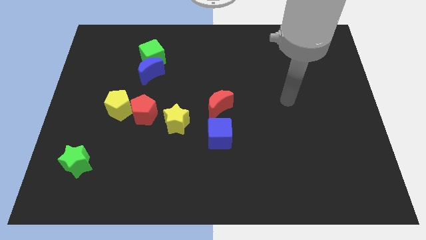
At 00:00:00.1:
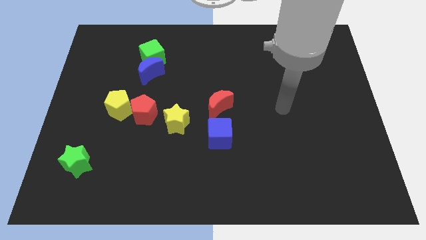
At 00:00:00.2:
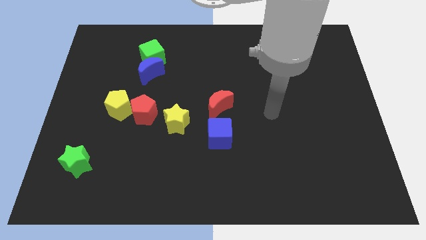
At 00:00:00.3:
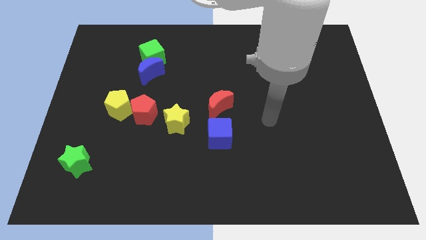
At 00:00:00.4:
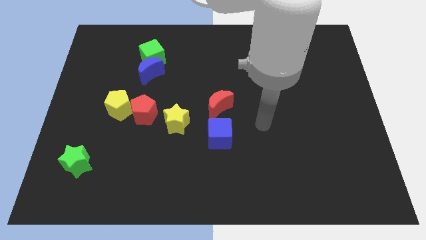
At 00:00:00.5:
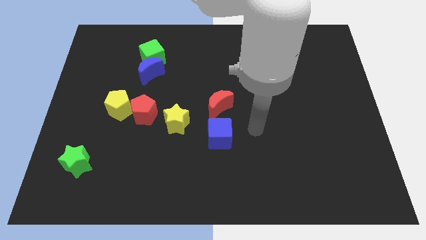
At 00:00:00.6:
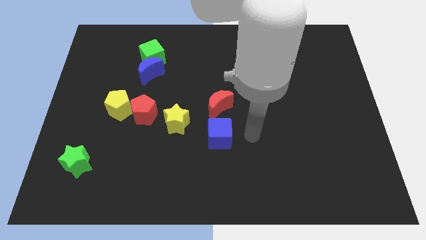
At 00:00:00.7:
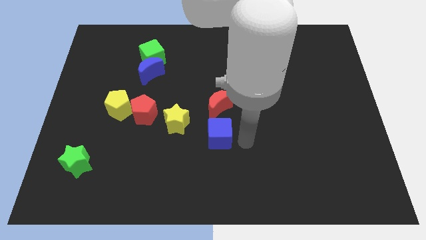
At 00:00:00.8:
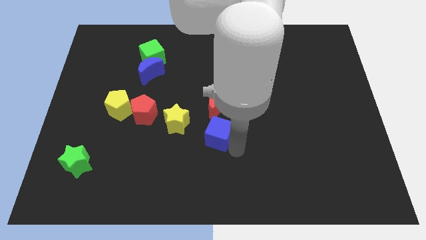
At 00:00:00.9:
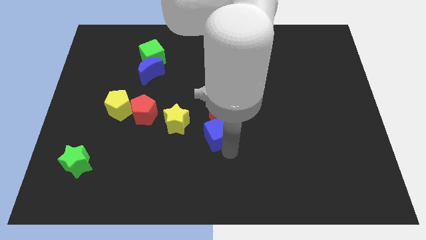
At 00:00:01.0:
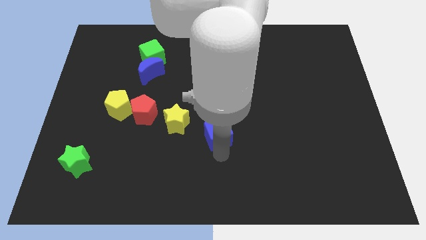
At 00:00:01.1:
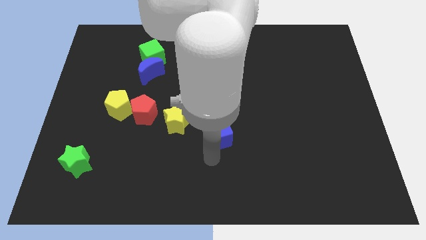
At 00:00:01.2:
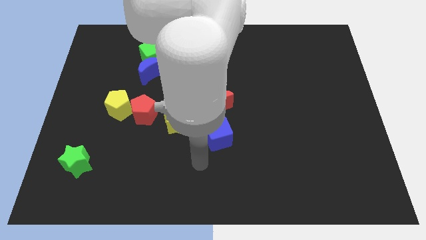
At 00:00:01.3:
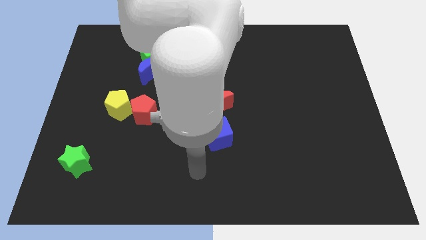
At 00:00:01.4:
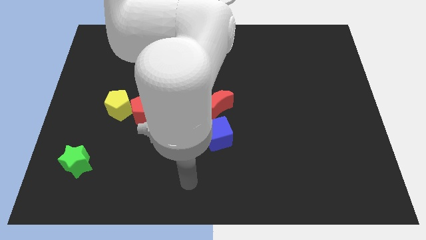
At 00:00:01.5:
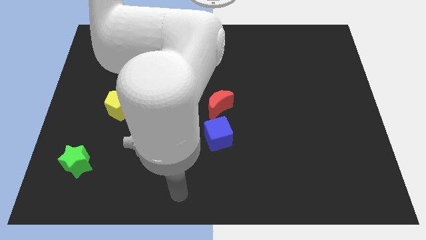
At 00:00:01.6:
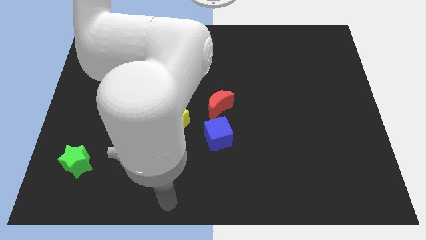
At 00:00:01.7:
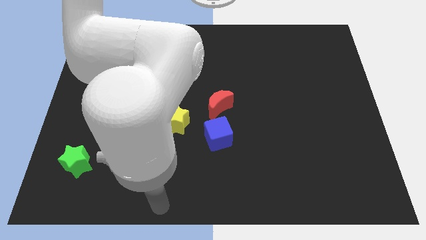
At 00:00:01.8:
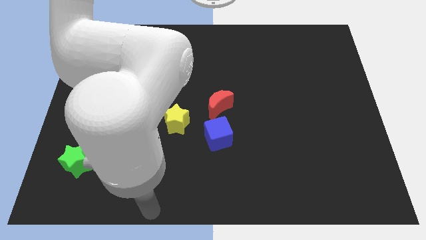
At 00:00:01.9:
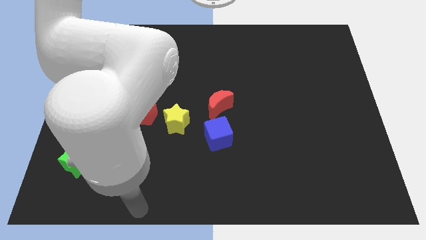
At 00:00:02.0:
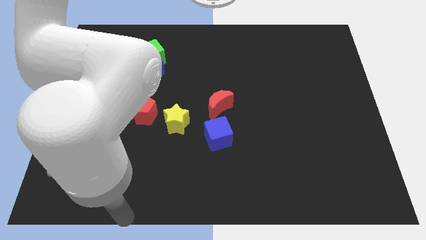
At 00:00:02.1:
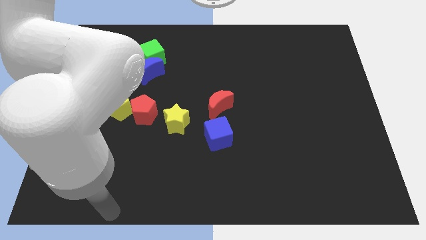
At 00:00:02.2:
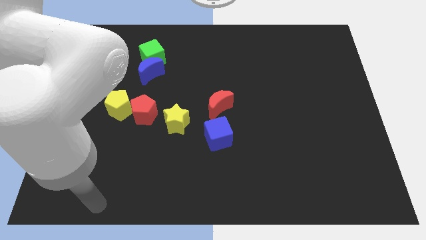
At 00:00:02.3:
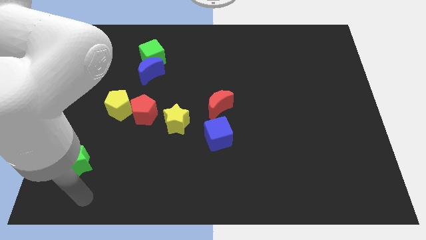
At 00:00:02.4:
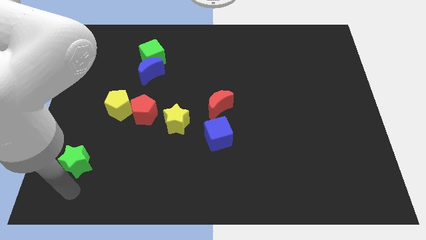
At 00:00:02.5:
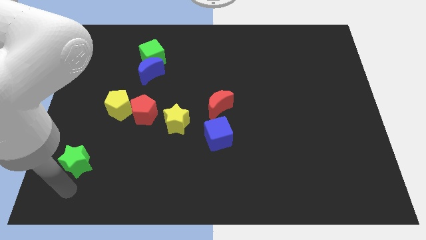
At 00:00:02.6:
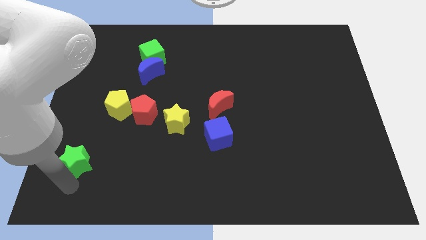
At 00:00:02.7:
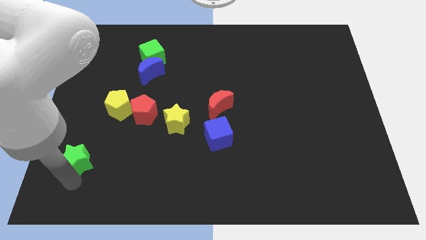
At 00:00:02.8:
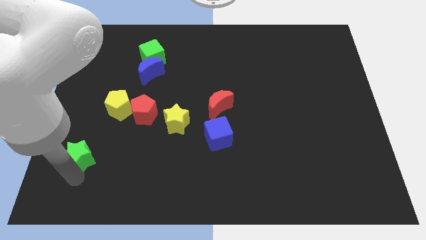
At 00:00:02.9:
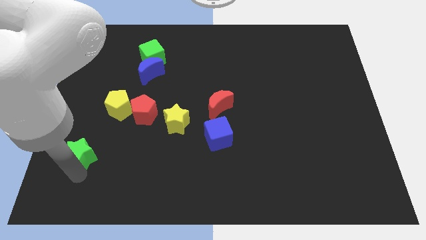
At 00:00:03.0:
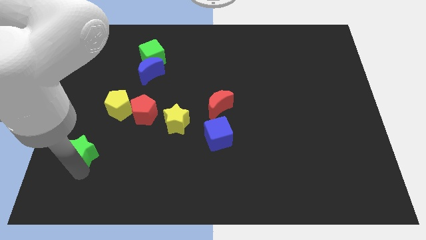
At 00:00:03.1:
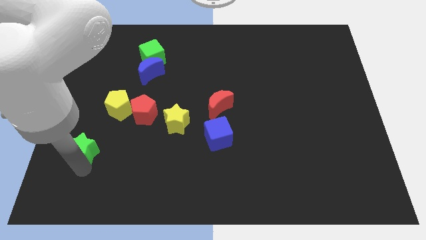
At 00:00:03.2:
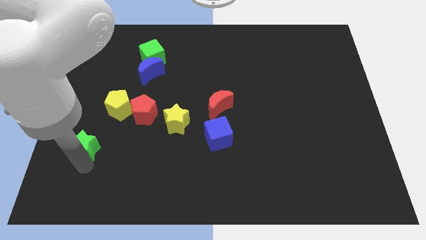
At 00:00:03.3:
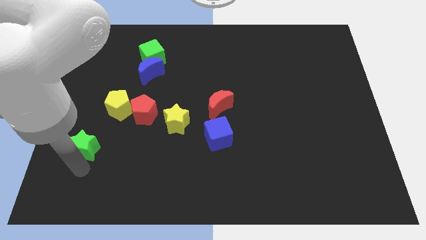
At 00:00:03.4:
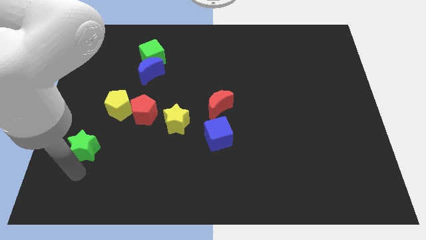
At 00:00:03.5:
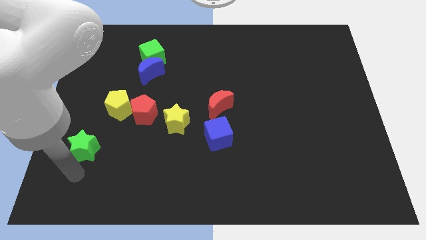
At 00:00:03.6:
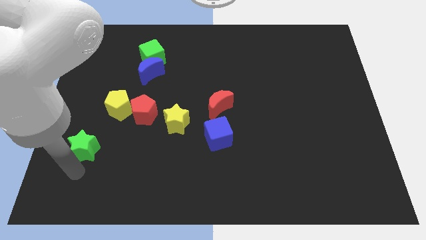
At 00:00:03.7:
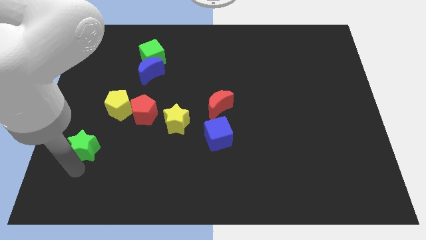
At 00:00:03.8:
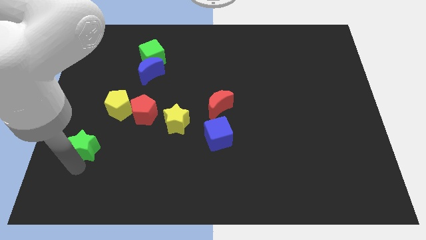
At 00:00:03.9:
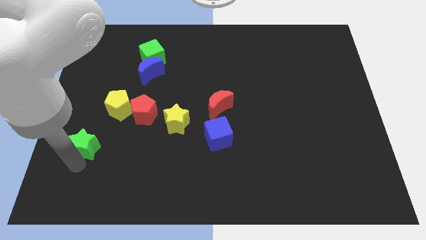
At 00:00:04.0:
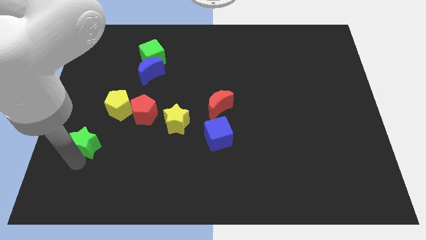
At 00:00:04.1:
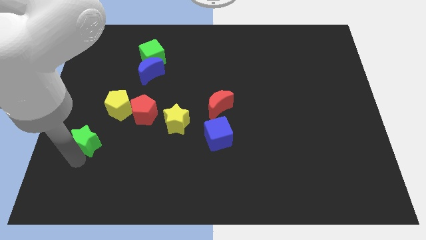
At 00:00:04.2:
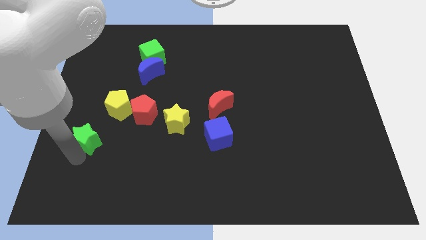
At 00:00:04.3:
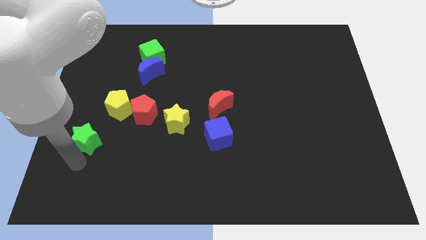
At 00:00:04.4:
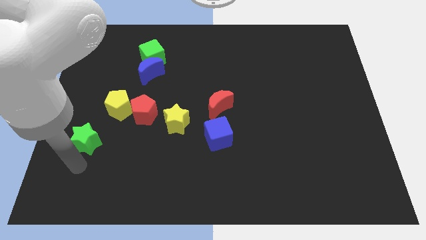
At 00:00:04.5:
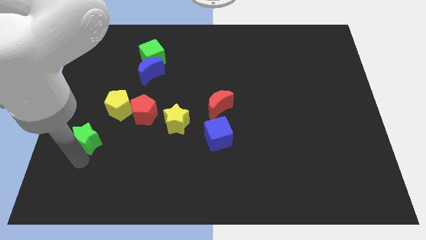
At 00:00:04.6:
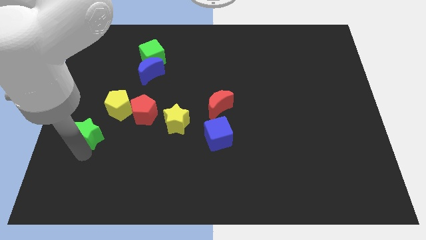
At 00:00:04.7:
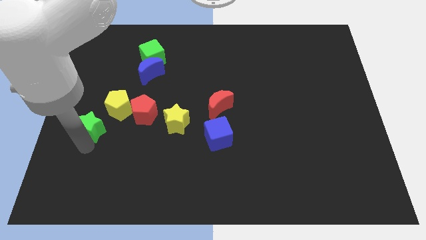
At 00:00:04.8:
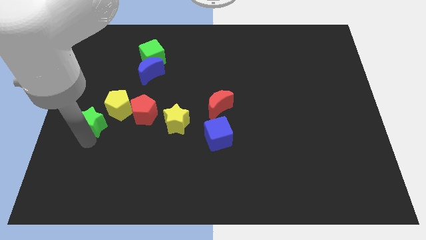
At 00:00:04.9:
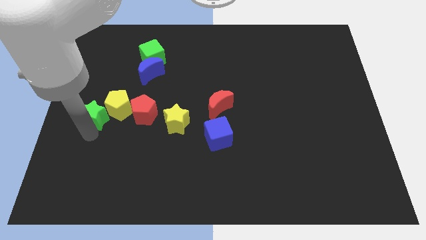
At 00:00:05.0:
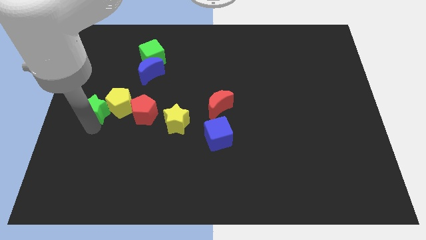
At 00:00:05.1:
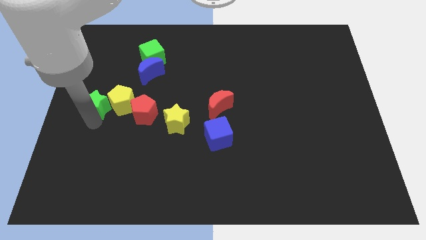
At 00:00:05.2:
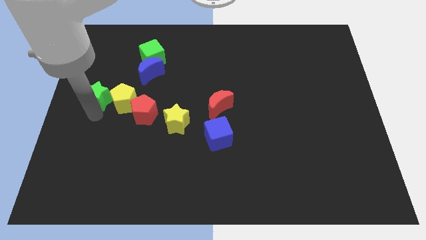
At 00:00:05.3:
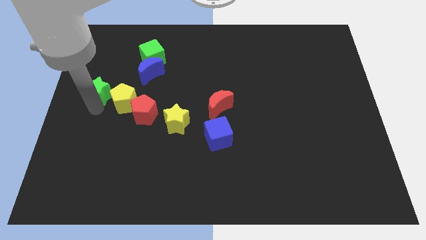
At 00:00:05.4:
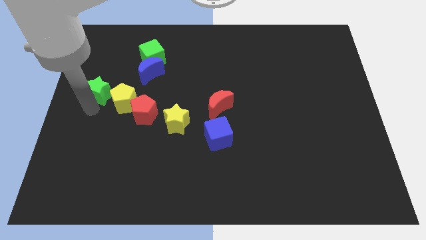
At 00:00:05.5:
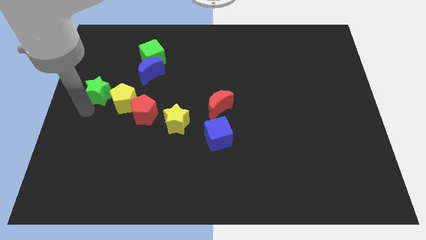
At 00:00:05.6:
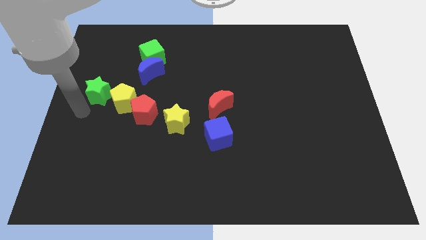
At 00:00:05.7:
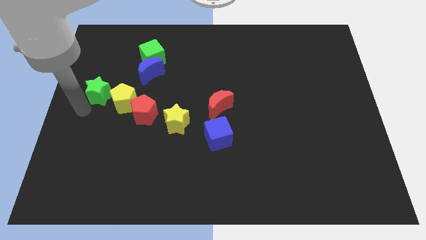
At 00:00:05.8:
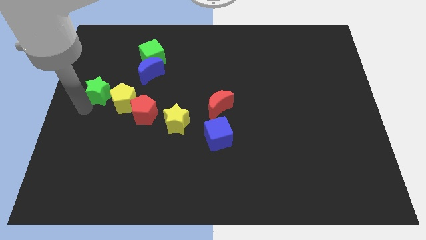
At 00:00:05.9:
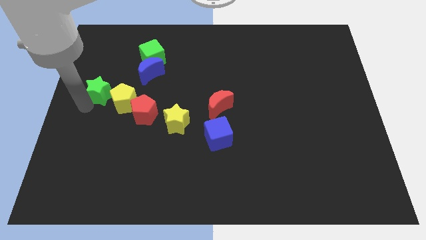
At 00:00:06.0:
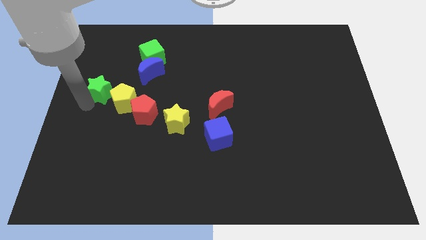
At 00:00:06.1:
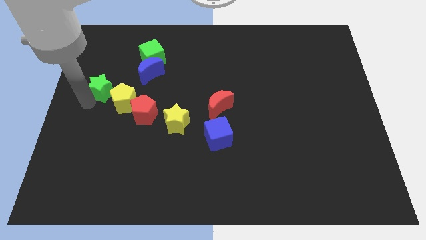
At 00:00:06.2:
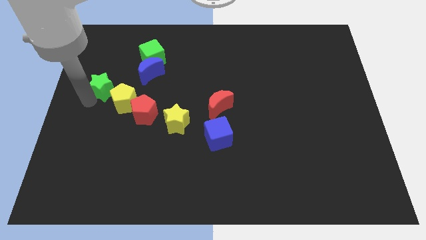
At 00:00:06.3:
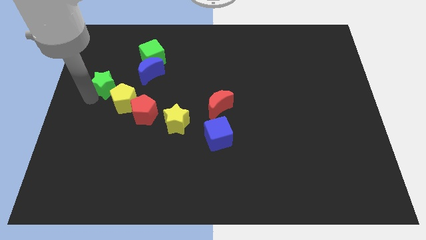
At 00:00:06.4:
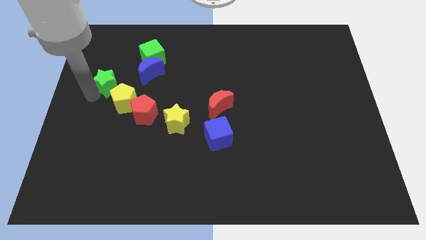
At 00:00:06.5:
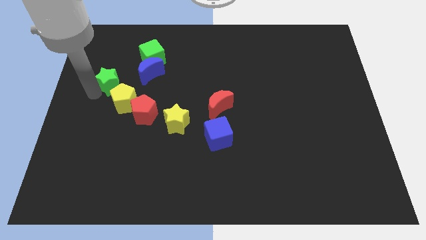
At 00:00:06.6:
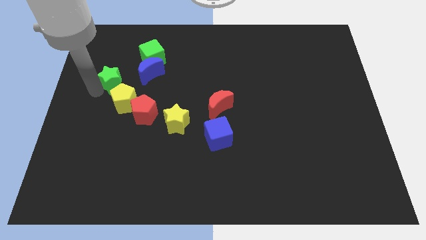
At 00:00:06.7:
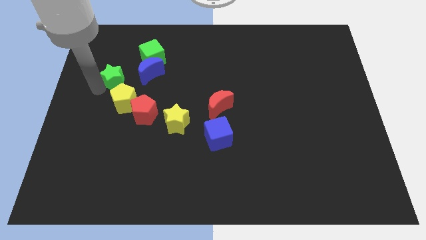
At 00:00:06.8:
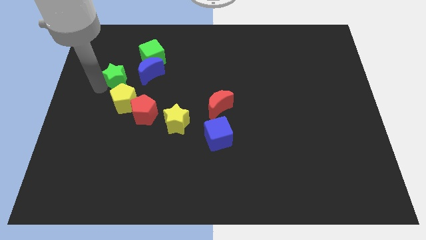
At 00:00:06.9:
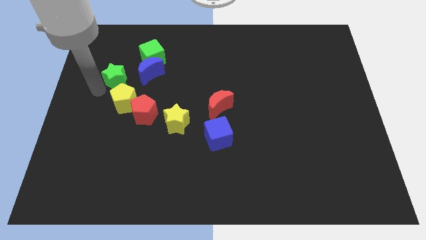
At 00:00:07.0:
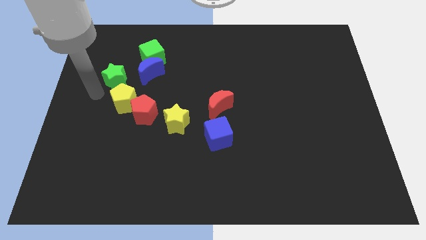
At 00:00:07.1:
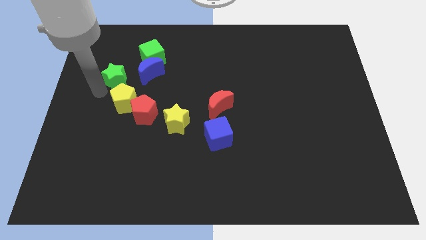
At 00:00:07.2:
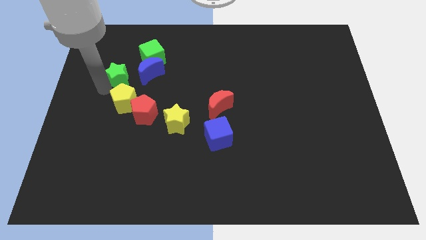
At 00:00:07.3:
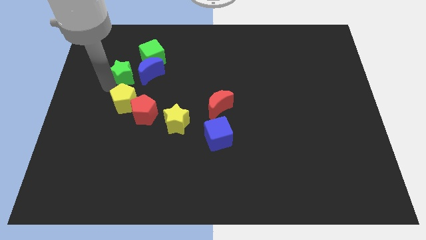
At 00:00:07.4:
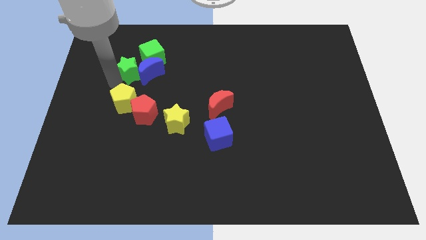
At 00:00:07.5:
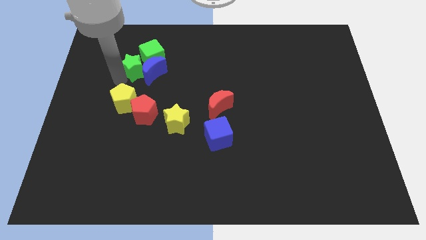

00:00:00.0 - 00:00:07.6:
slide the green star to the green cube
